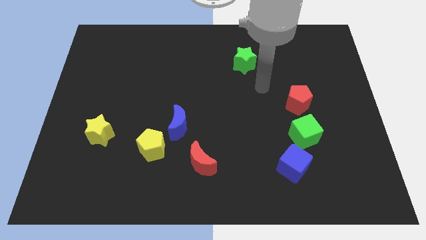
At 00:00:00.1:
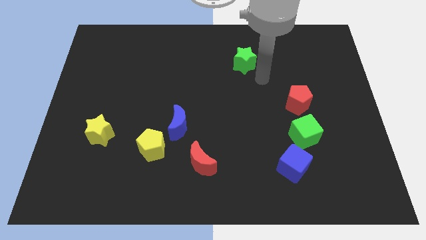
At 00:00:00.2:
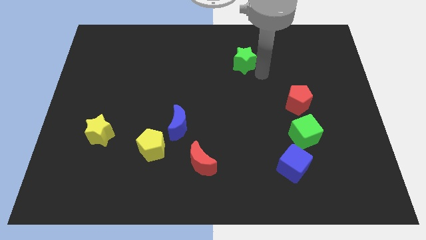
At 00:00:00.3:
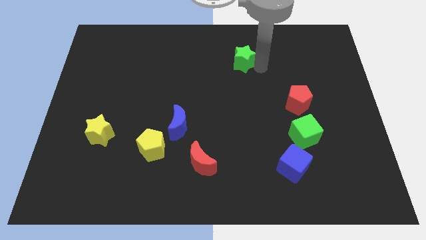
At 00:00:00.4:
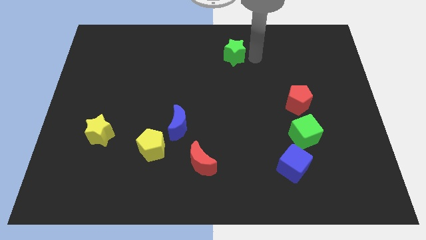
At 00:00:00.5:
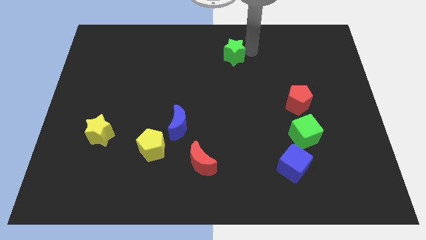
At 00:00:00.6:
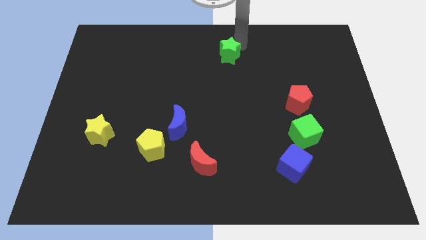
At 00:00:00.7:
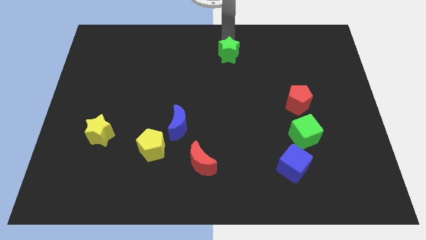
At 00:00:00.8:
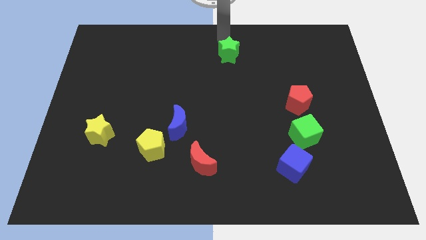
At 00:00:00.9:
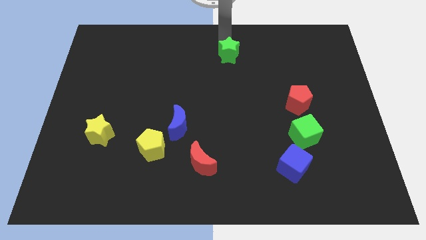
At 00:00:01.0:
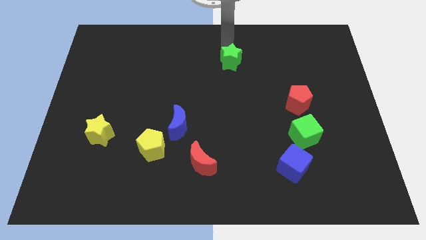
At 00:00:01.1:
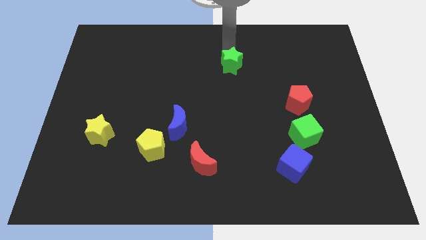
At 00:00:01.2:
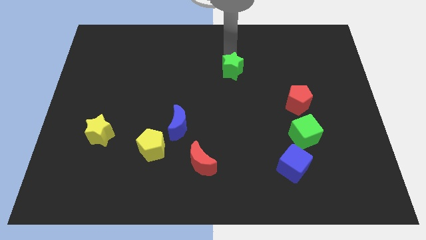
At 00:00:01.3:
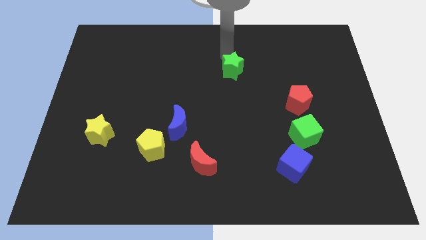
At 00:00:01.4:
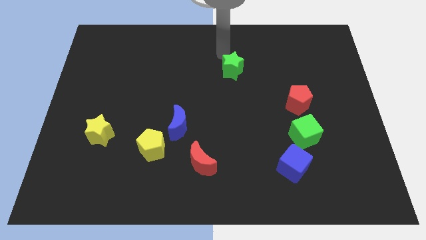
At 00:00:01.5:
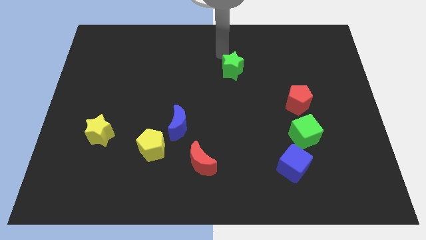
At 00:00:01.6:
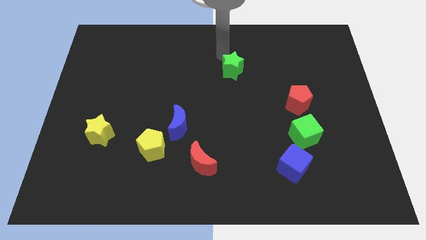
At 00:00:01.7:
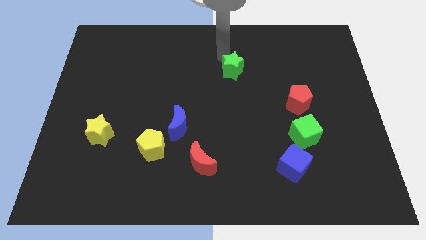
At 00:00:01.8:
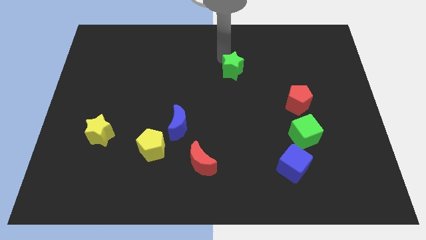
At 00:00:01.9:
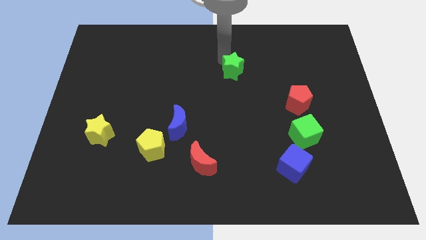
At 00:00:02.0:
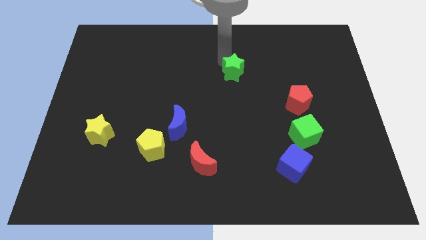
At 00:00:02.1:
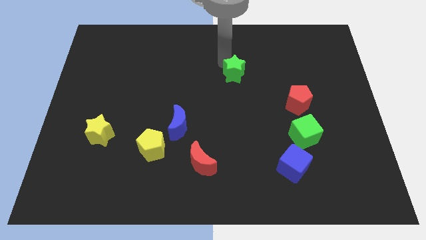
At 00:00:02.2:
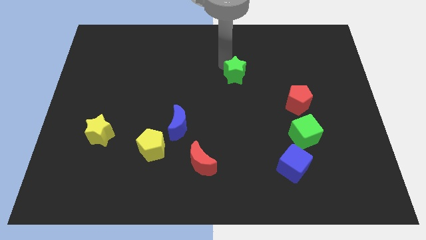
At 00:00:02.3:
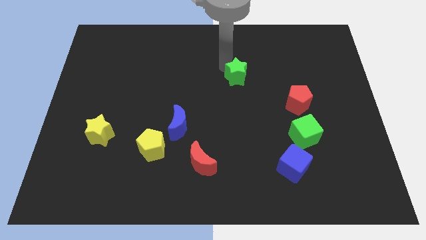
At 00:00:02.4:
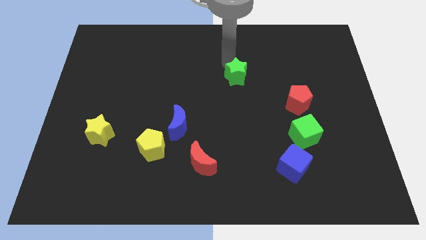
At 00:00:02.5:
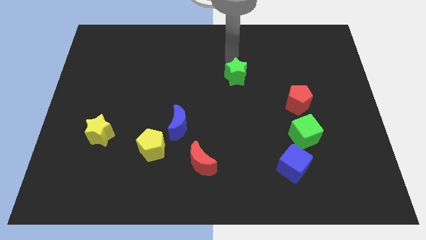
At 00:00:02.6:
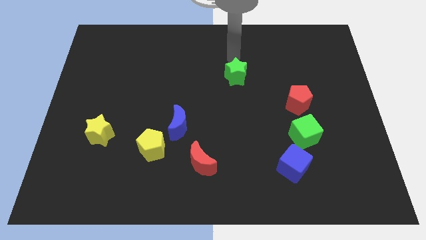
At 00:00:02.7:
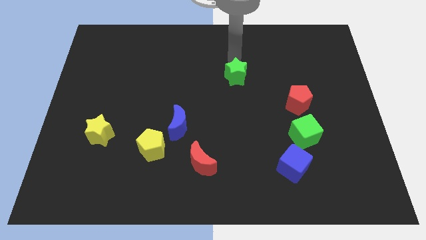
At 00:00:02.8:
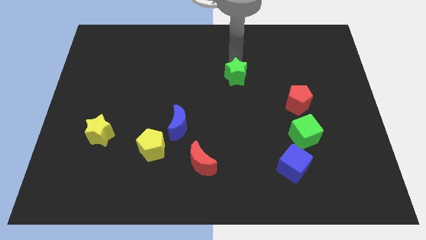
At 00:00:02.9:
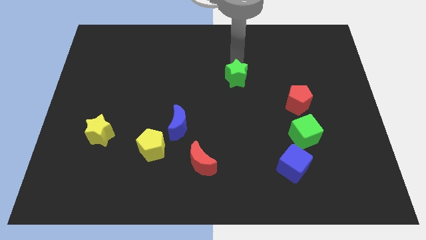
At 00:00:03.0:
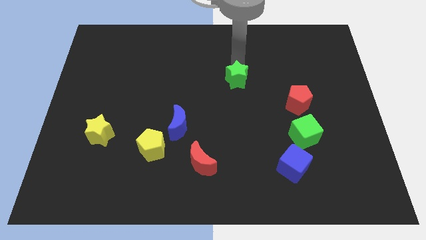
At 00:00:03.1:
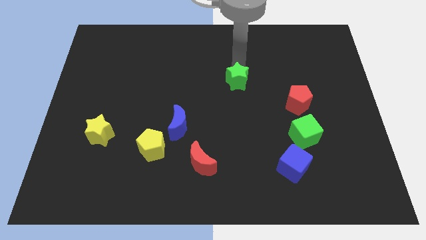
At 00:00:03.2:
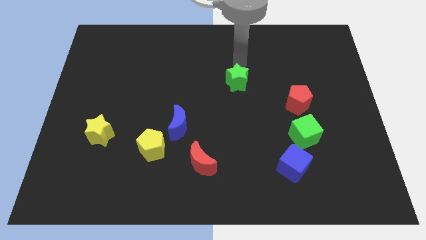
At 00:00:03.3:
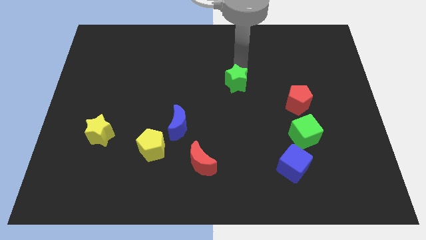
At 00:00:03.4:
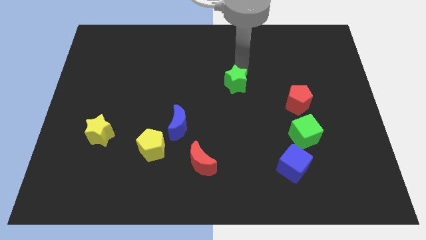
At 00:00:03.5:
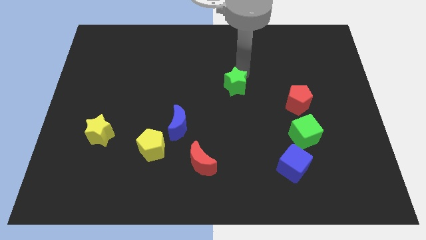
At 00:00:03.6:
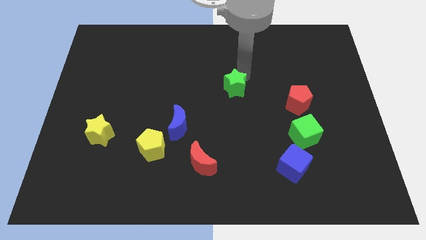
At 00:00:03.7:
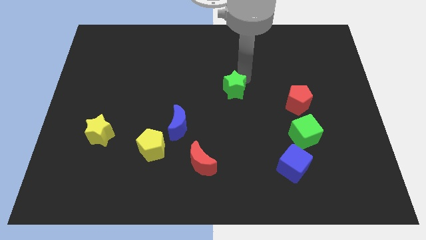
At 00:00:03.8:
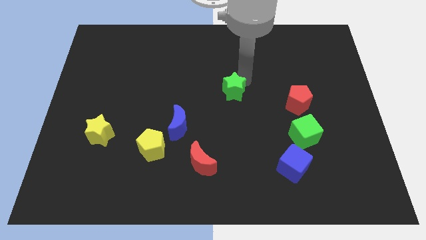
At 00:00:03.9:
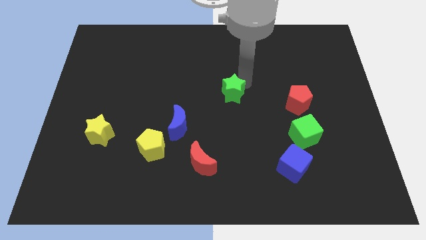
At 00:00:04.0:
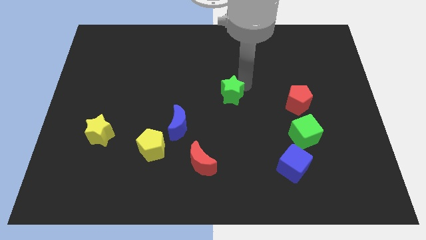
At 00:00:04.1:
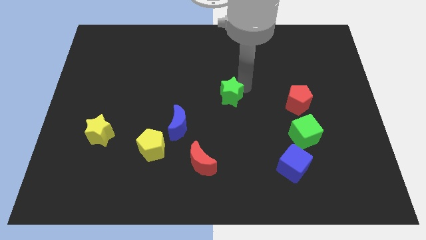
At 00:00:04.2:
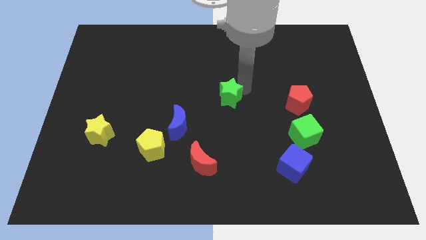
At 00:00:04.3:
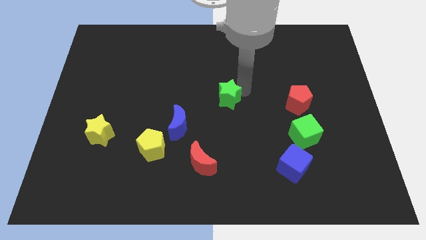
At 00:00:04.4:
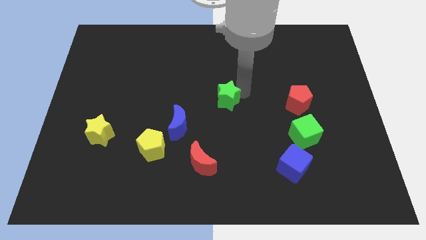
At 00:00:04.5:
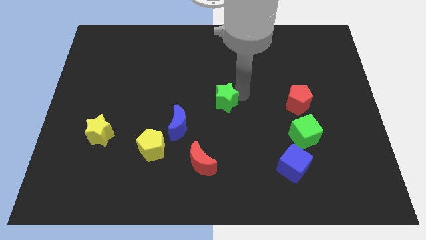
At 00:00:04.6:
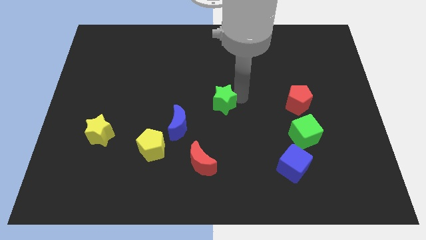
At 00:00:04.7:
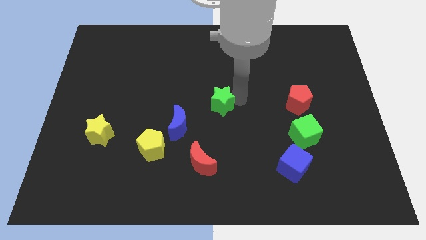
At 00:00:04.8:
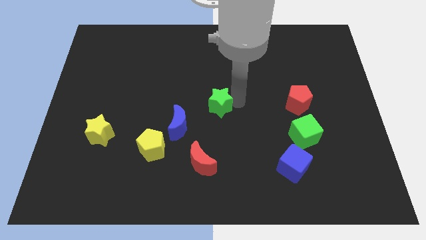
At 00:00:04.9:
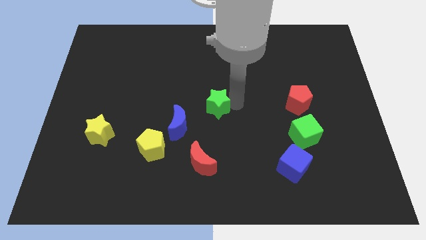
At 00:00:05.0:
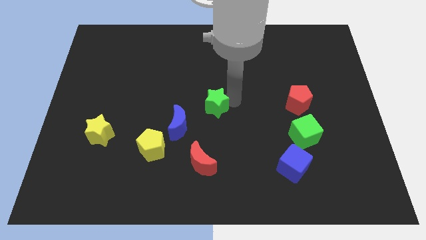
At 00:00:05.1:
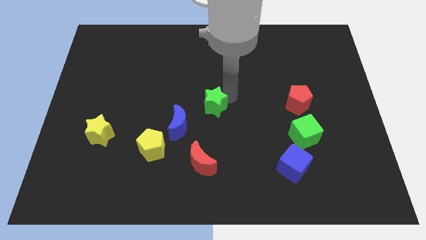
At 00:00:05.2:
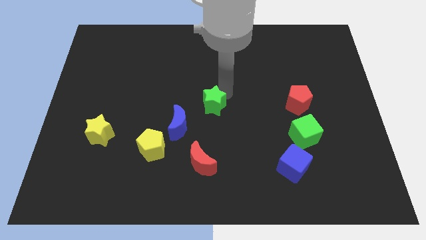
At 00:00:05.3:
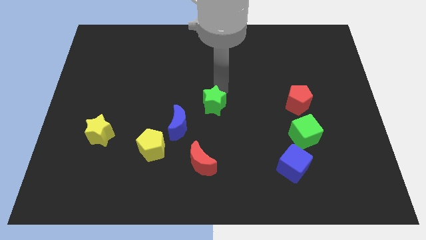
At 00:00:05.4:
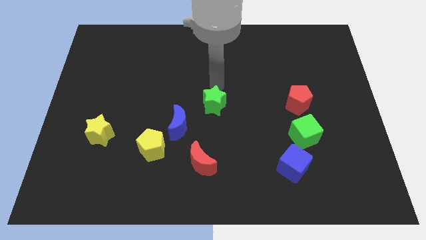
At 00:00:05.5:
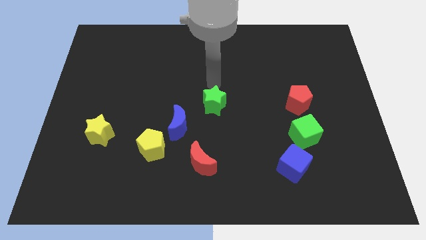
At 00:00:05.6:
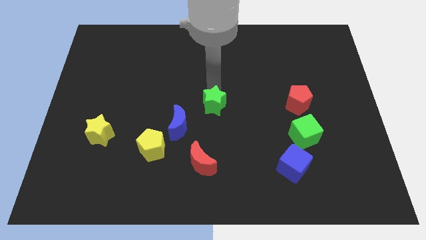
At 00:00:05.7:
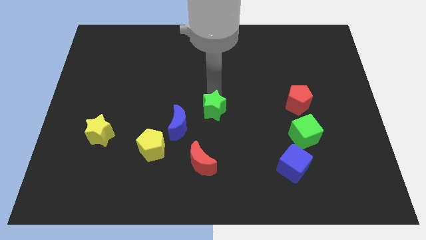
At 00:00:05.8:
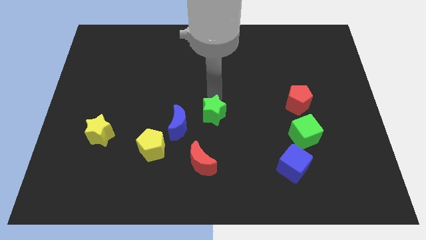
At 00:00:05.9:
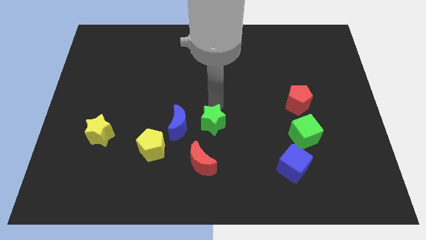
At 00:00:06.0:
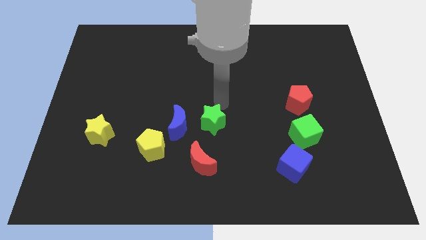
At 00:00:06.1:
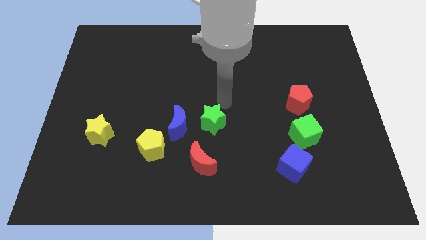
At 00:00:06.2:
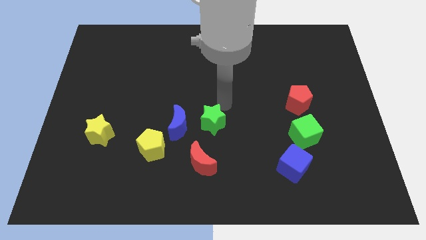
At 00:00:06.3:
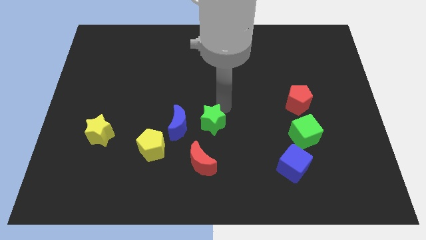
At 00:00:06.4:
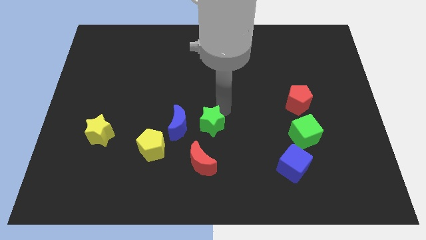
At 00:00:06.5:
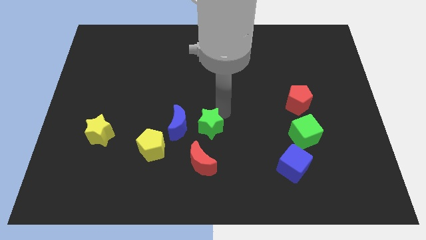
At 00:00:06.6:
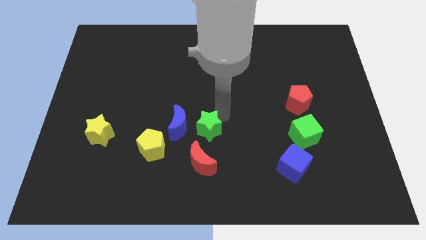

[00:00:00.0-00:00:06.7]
put the green star to the bottom right side of the blue moon

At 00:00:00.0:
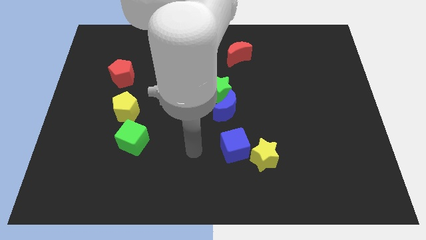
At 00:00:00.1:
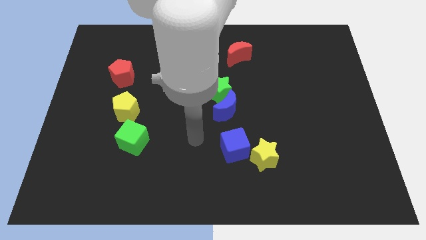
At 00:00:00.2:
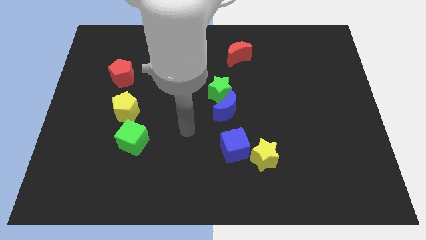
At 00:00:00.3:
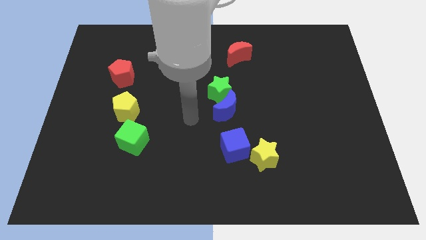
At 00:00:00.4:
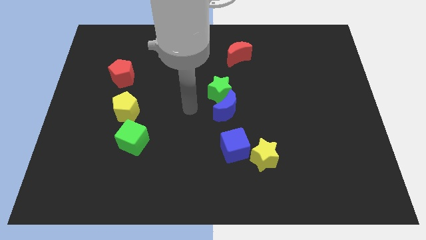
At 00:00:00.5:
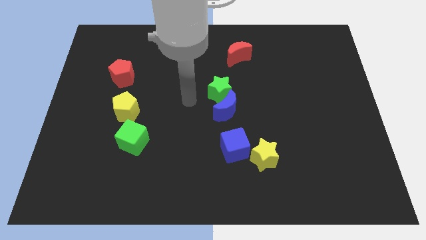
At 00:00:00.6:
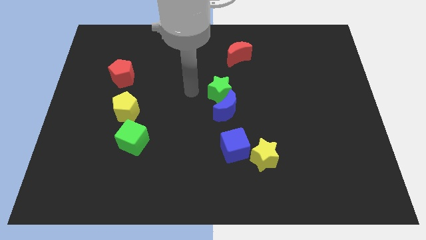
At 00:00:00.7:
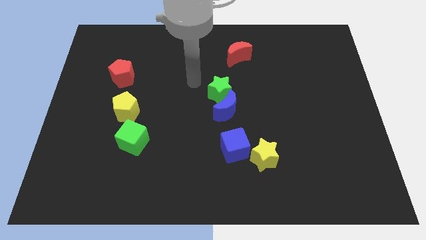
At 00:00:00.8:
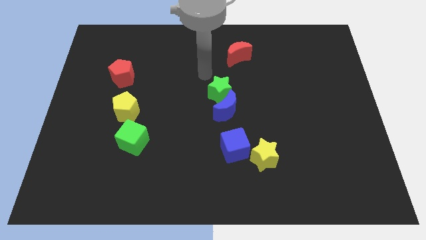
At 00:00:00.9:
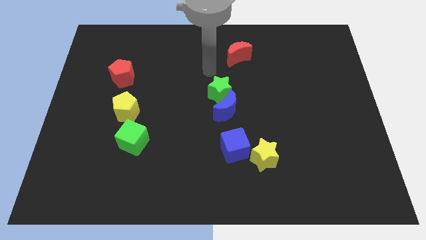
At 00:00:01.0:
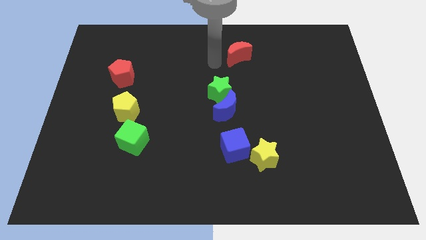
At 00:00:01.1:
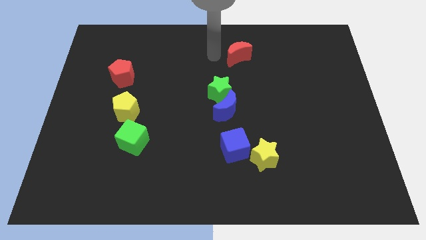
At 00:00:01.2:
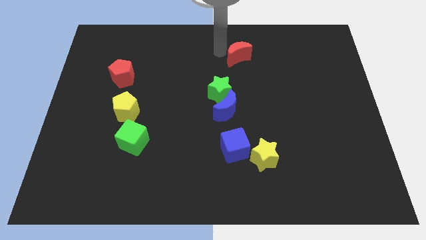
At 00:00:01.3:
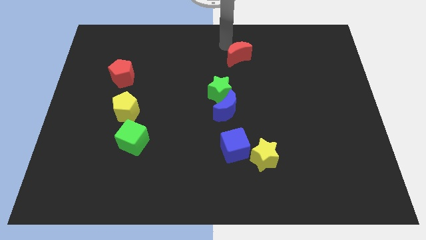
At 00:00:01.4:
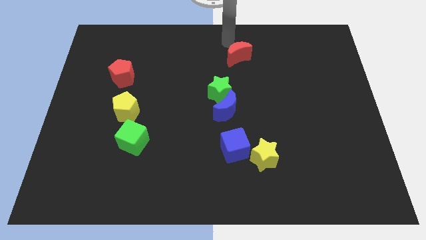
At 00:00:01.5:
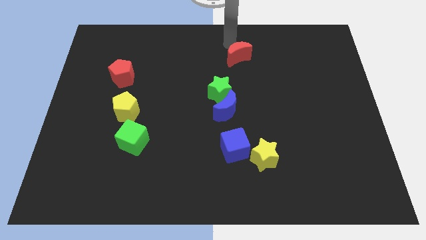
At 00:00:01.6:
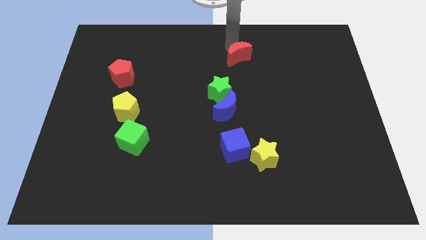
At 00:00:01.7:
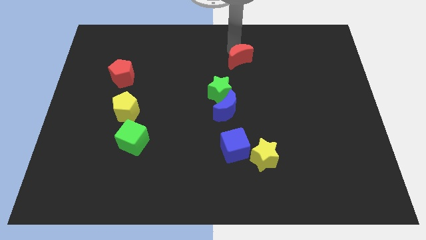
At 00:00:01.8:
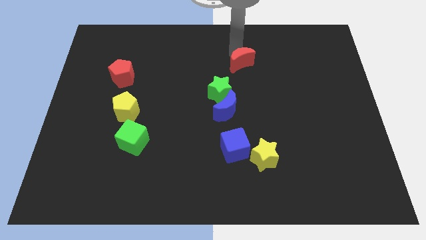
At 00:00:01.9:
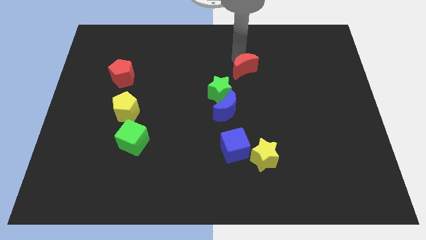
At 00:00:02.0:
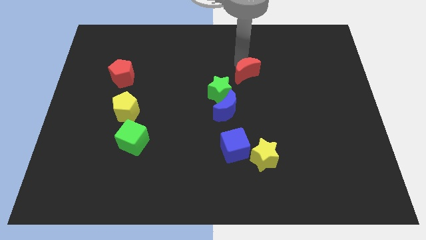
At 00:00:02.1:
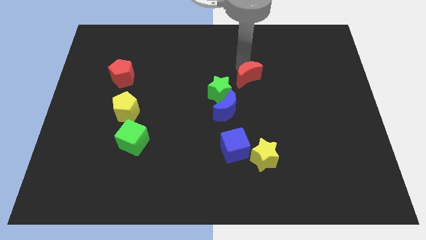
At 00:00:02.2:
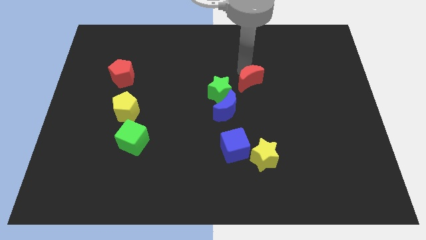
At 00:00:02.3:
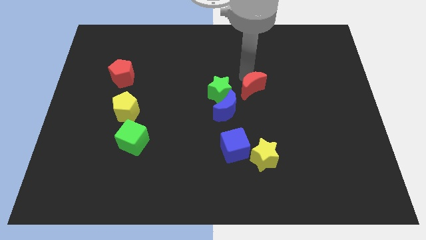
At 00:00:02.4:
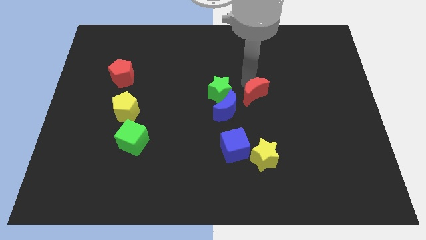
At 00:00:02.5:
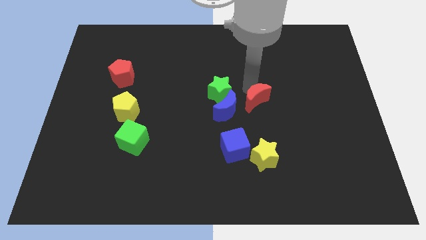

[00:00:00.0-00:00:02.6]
slide the red moon to the right side of the blue moon
